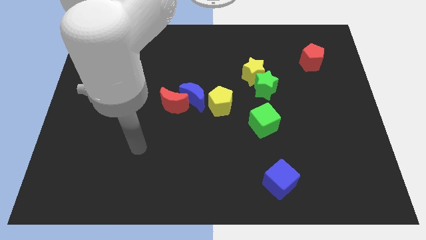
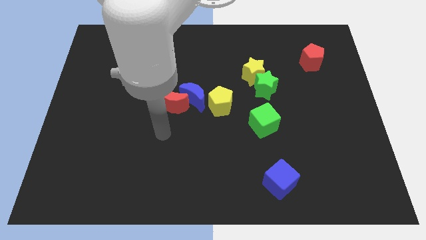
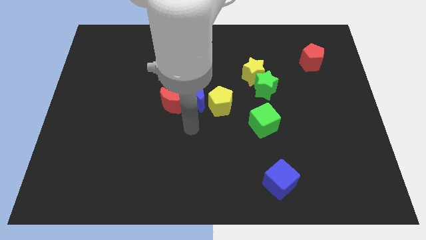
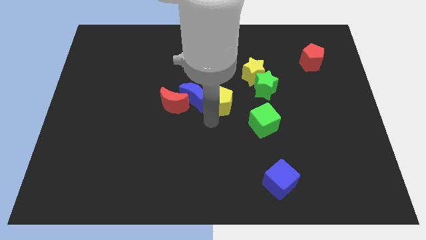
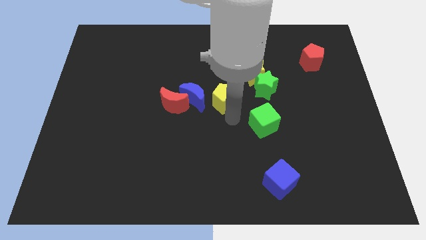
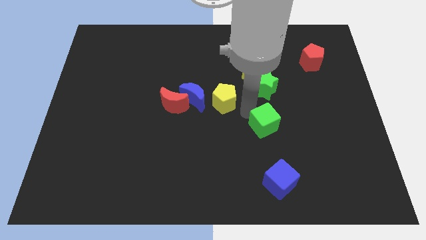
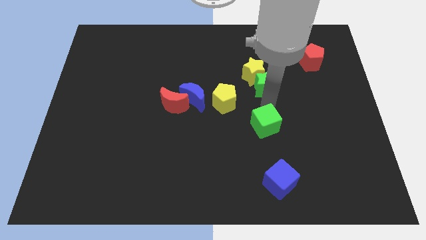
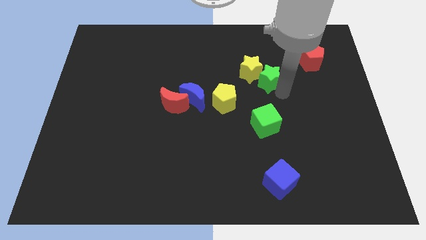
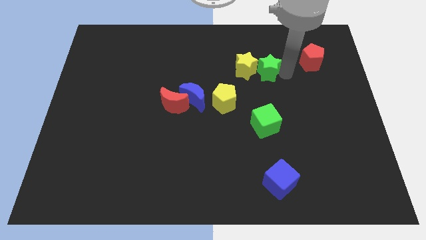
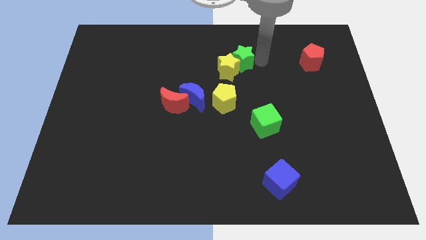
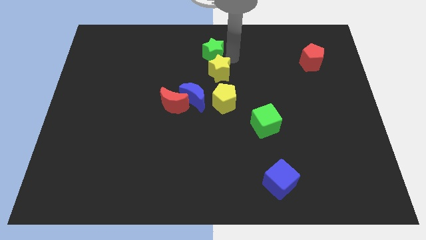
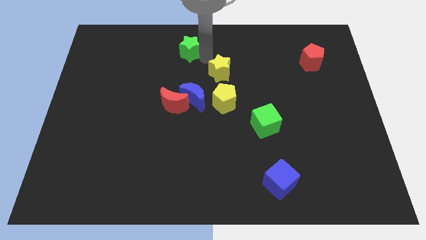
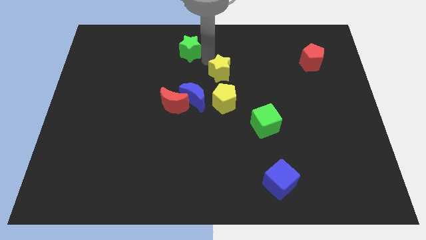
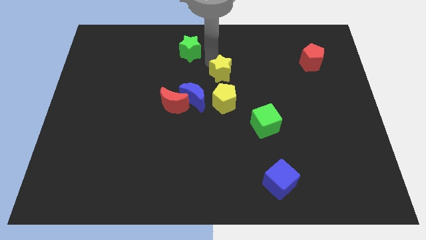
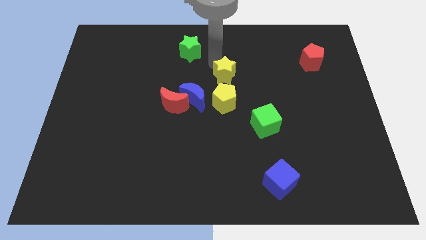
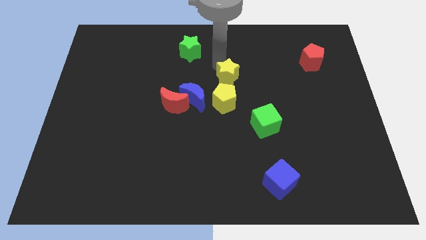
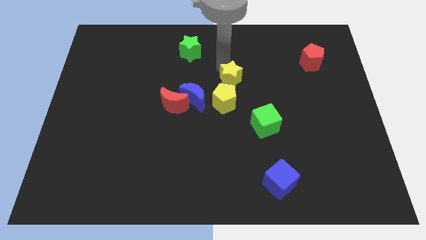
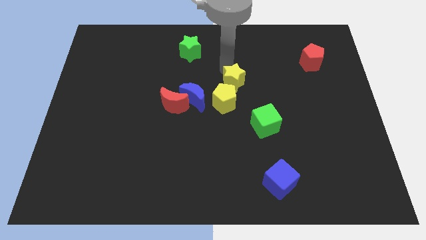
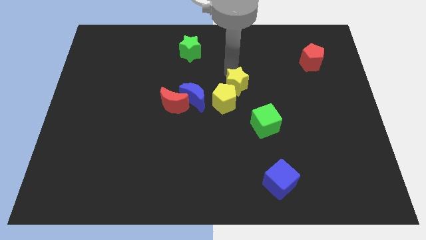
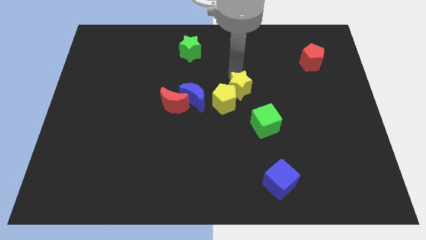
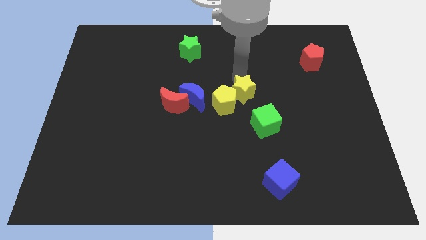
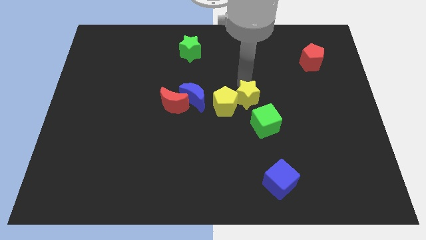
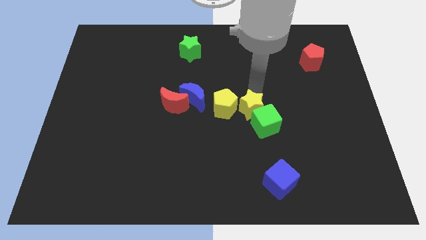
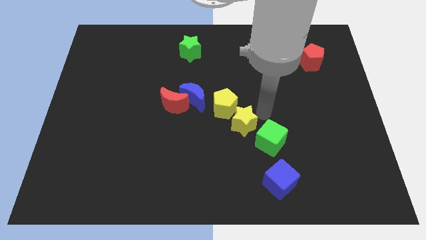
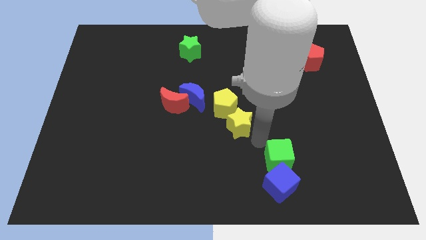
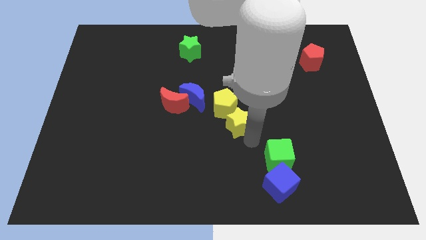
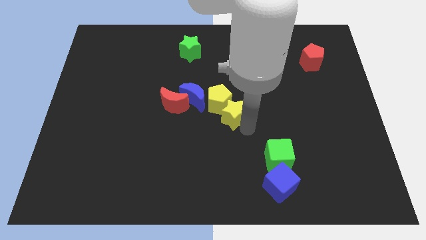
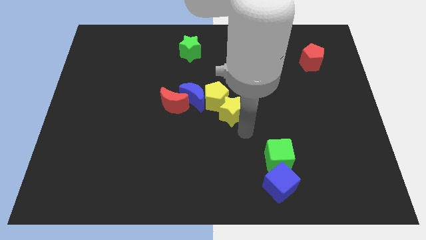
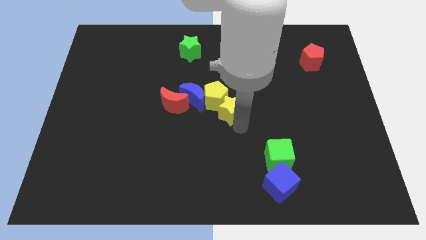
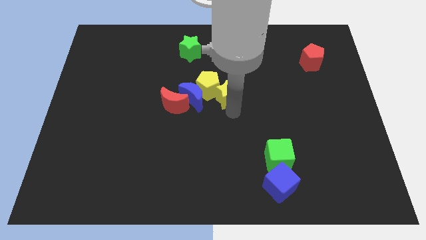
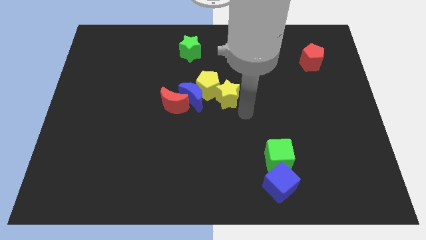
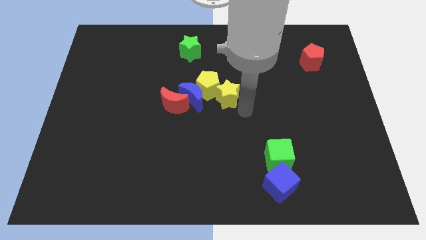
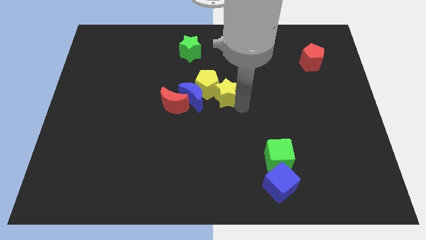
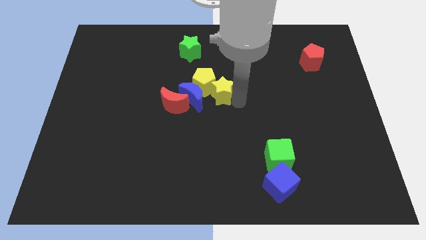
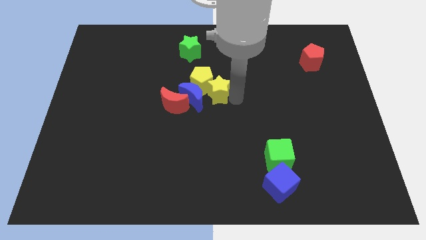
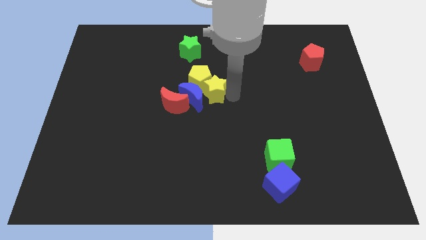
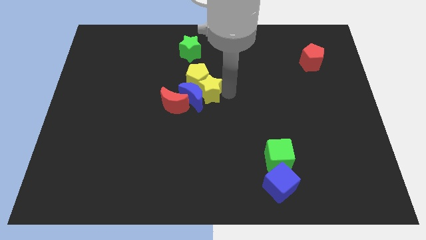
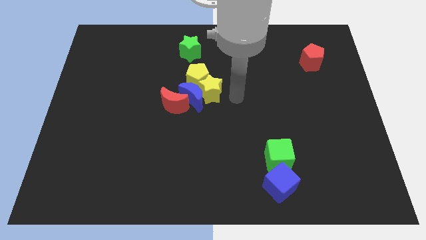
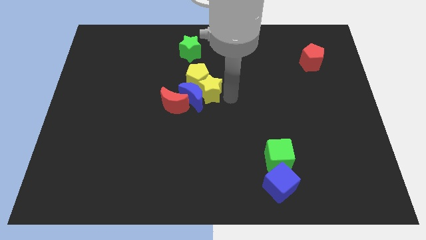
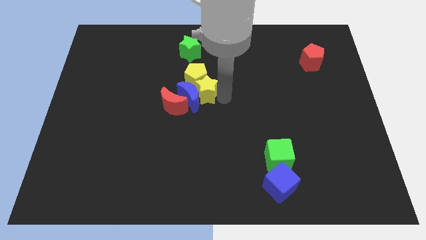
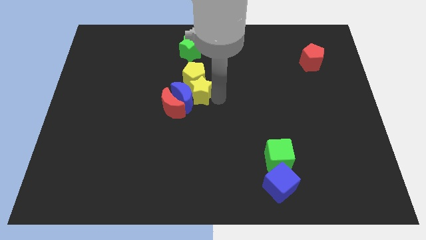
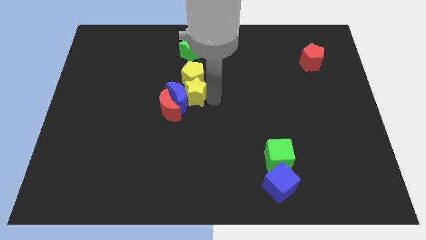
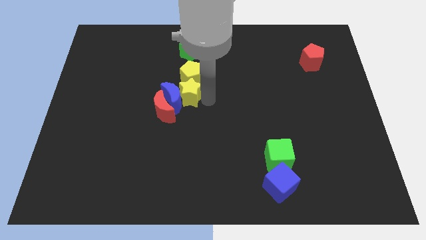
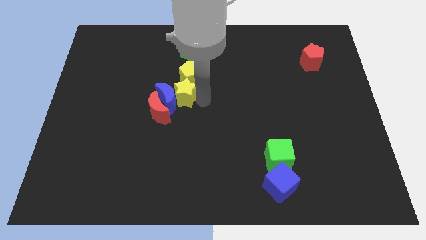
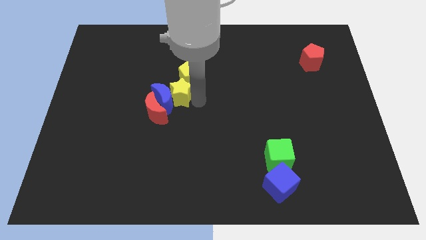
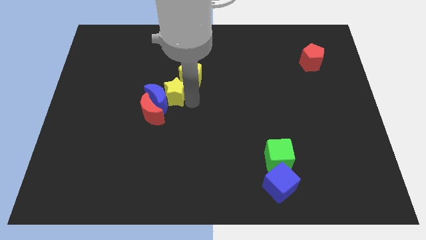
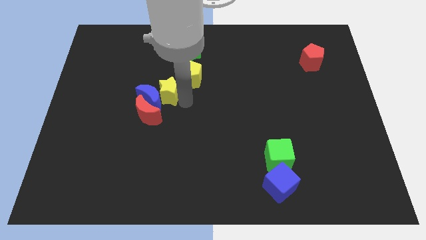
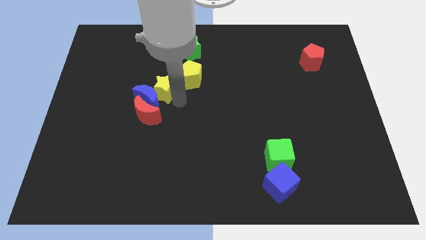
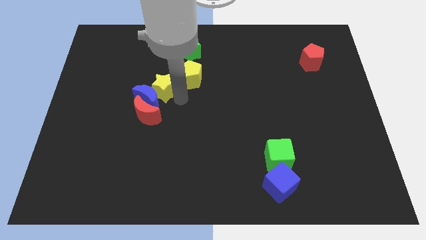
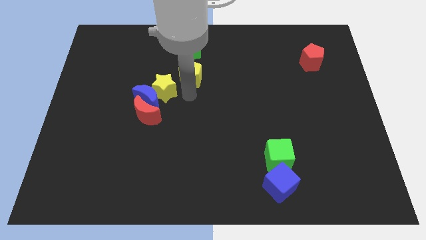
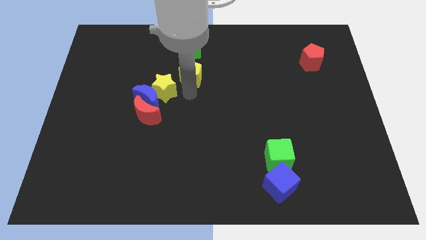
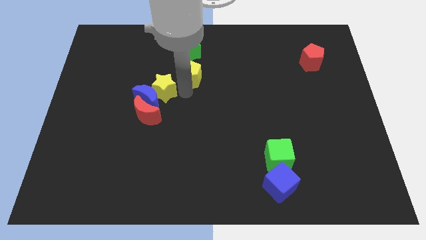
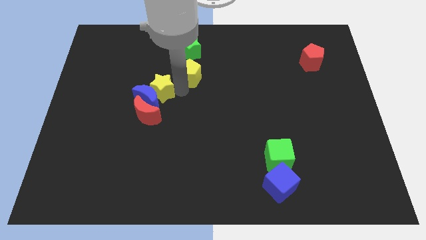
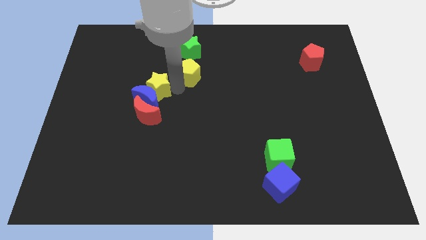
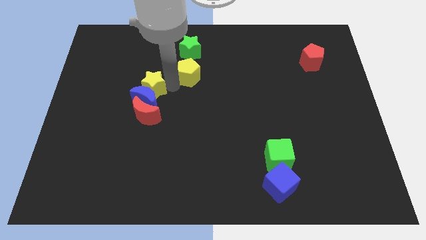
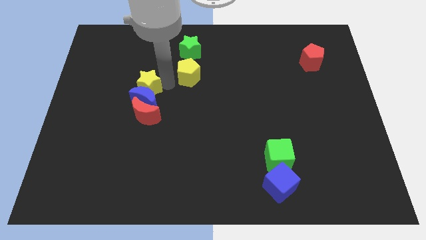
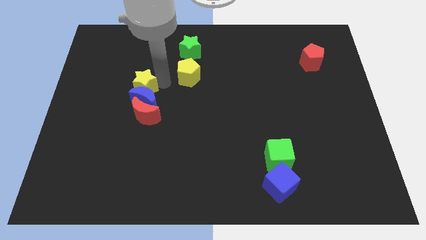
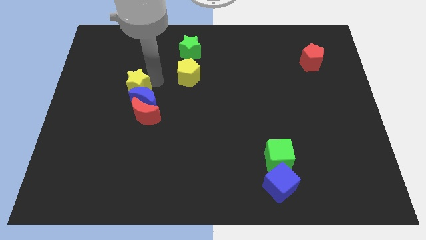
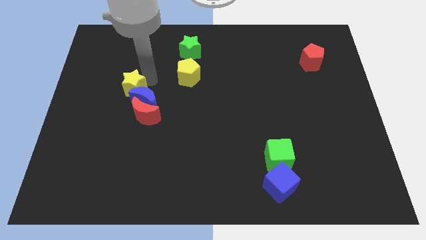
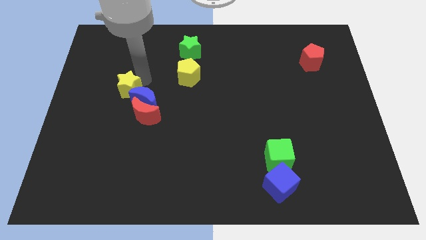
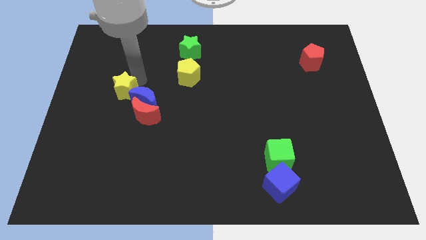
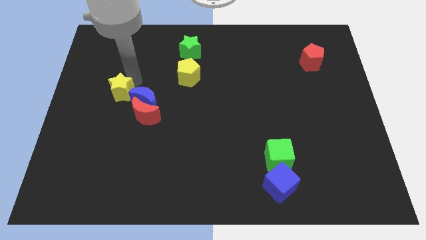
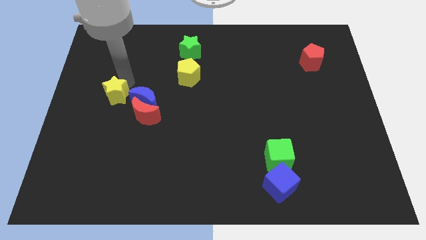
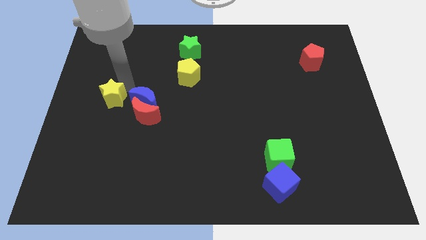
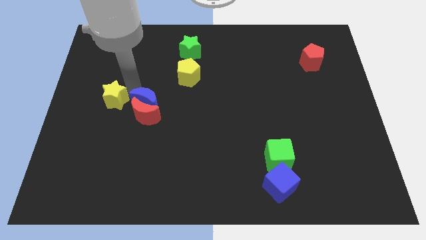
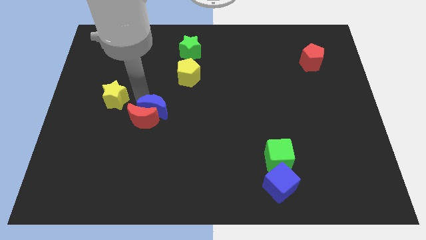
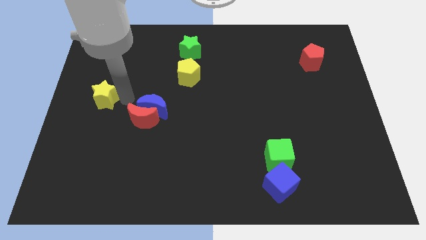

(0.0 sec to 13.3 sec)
slide the yellow star to the left side
